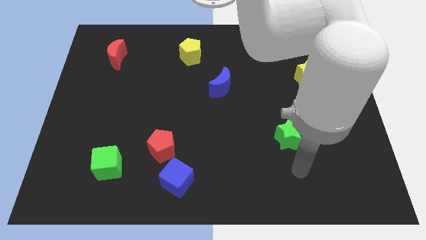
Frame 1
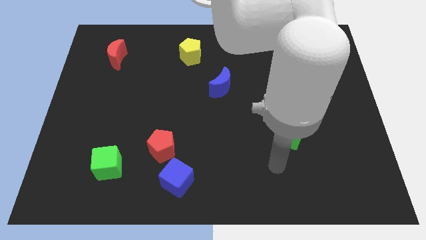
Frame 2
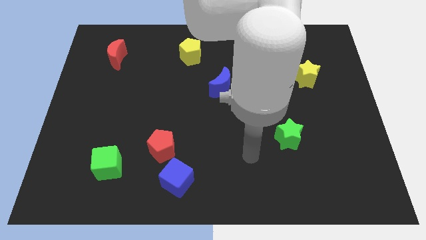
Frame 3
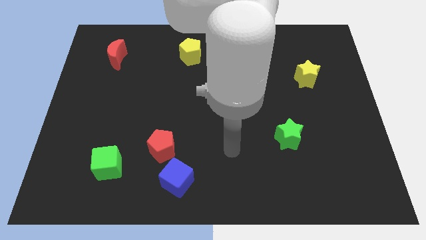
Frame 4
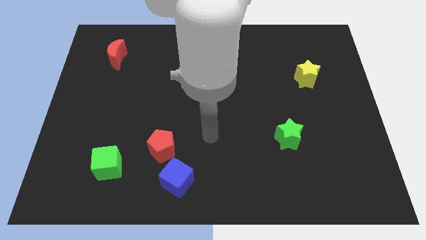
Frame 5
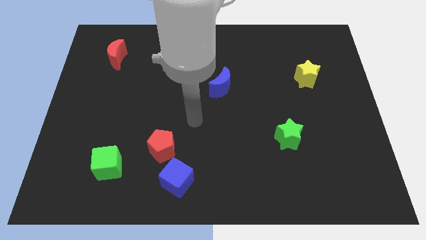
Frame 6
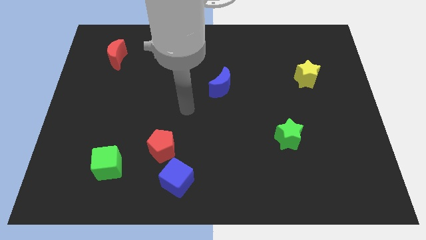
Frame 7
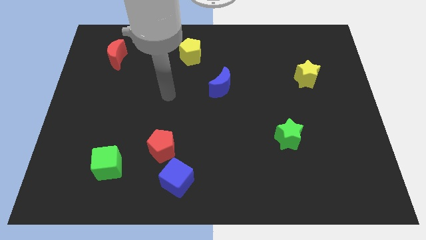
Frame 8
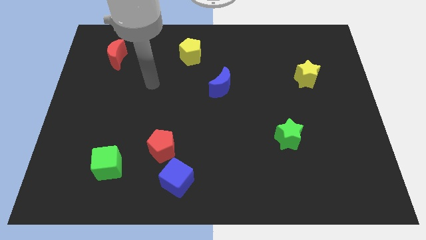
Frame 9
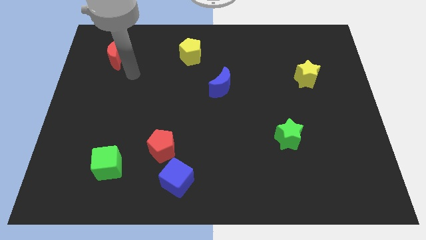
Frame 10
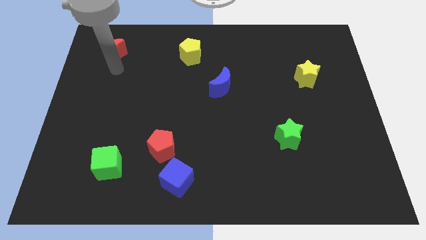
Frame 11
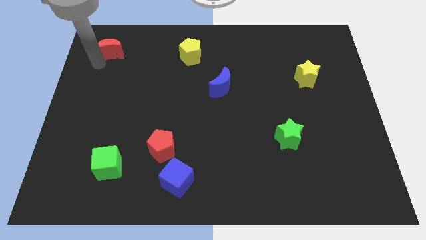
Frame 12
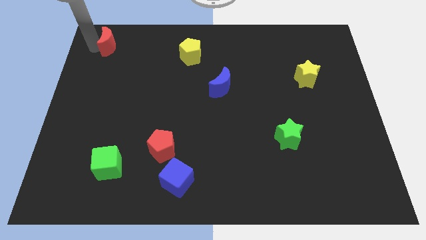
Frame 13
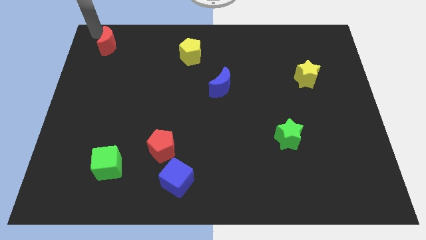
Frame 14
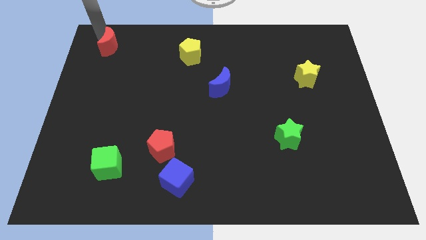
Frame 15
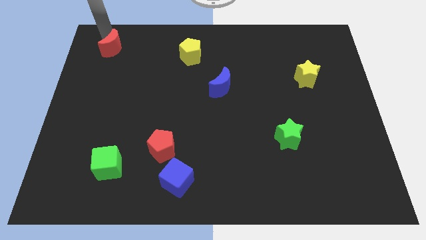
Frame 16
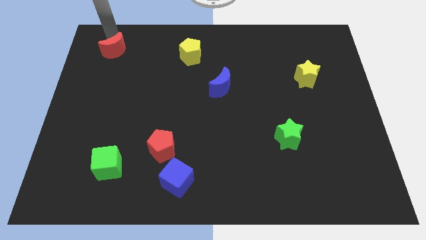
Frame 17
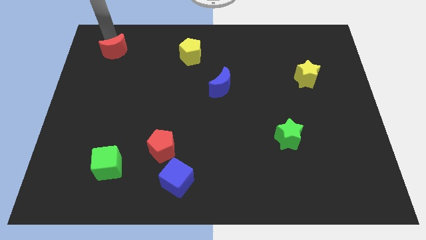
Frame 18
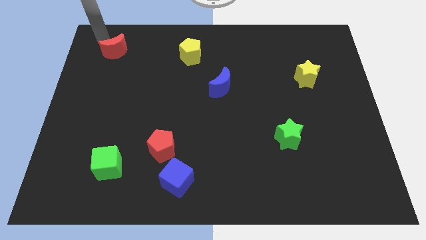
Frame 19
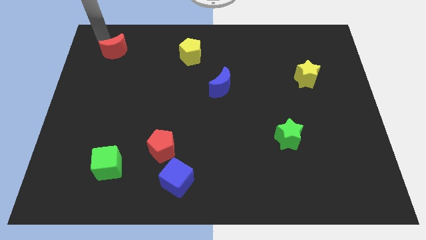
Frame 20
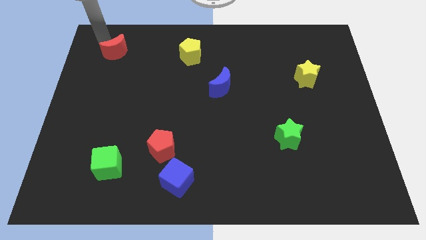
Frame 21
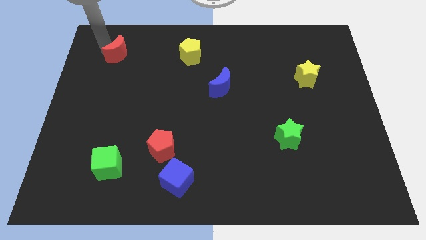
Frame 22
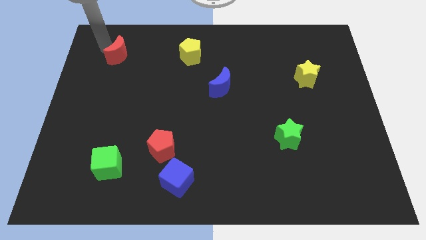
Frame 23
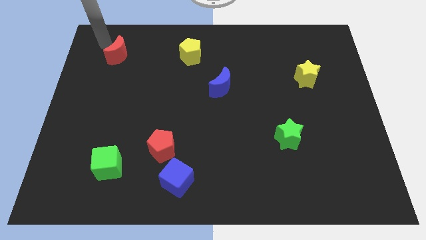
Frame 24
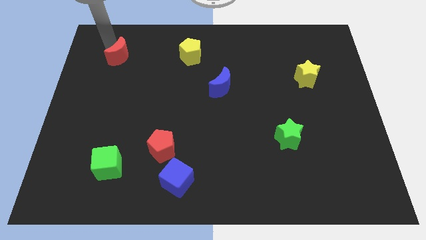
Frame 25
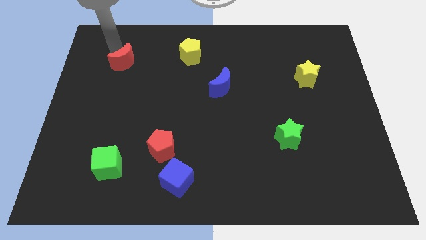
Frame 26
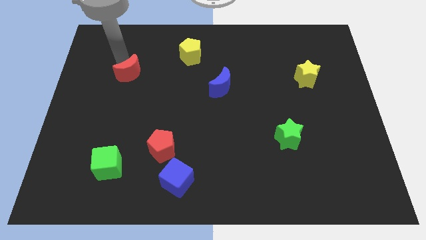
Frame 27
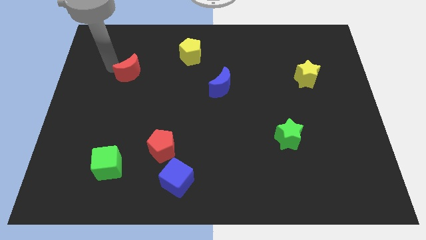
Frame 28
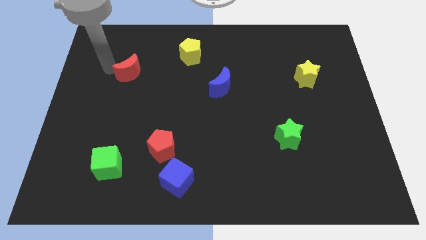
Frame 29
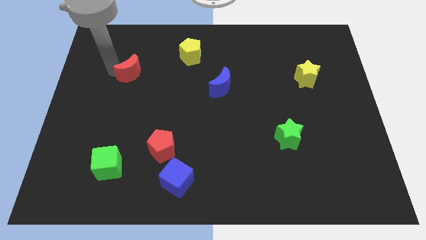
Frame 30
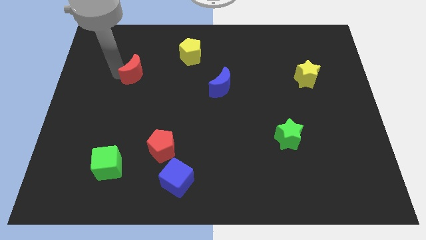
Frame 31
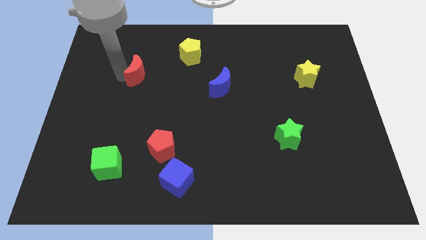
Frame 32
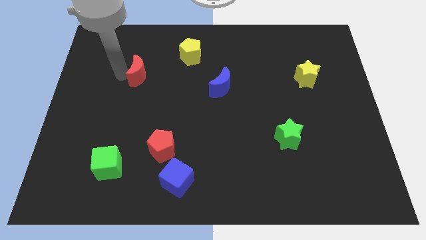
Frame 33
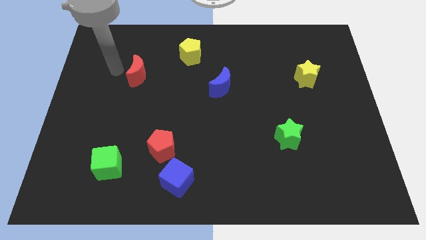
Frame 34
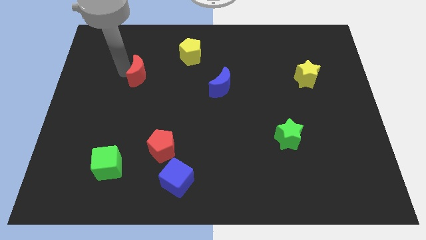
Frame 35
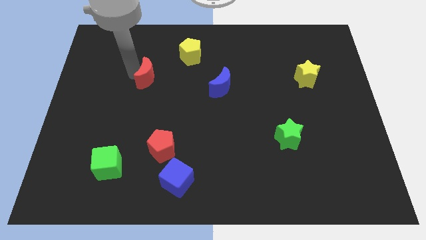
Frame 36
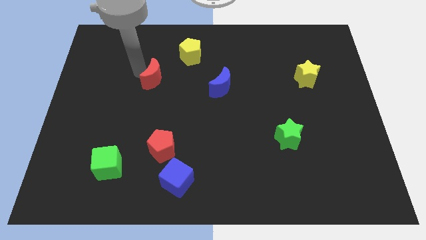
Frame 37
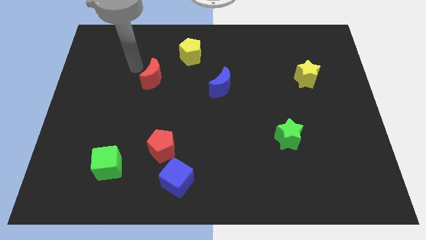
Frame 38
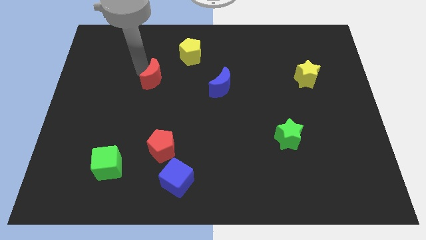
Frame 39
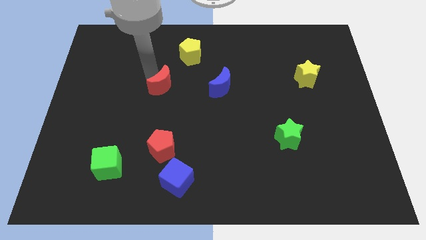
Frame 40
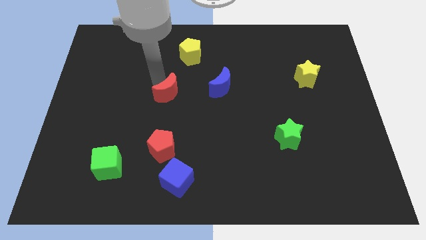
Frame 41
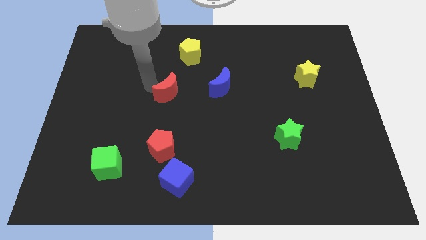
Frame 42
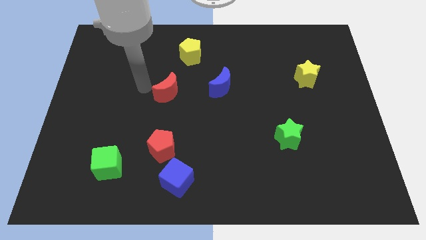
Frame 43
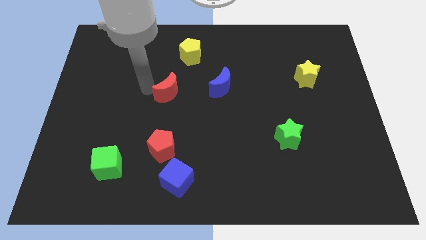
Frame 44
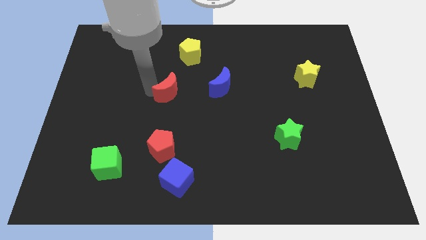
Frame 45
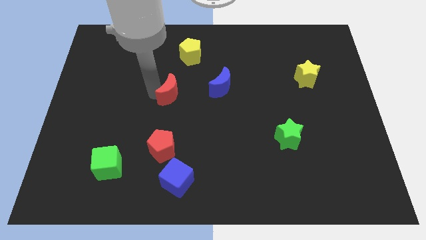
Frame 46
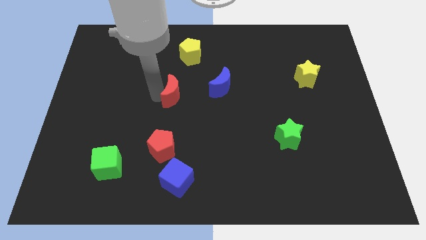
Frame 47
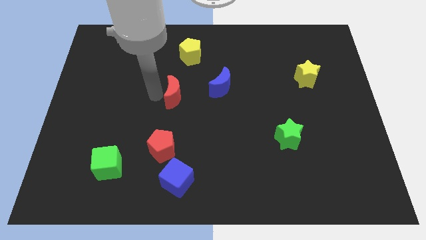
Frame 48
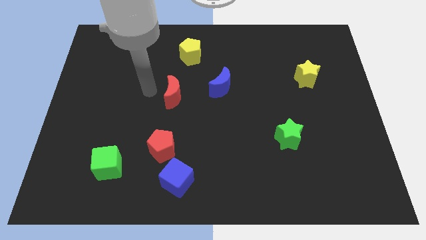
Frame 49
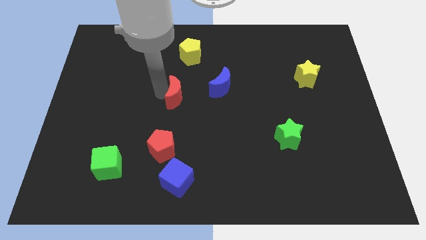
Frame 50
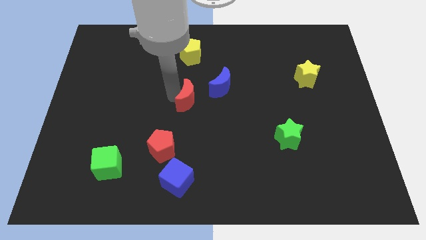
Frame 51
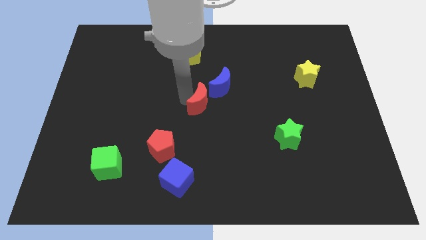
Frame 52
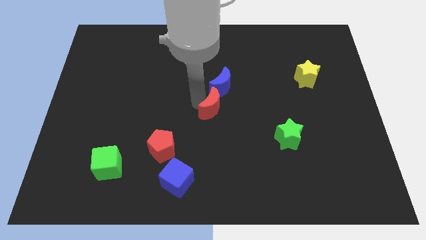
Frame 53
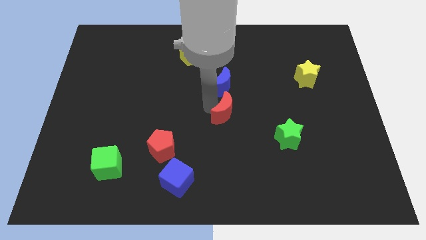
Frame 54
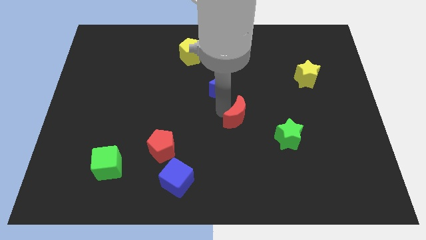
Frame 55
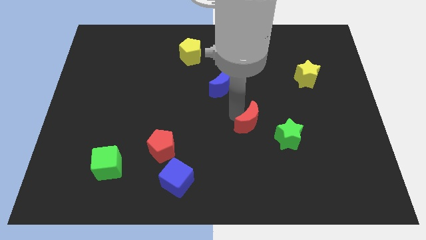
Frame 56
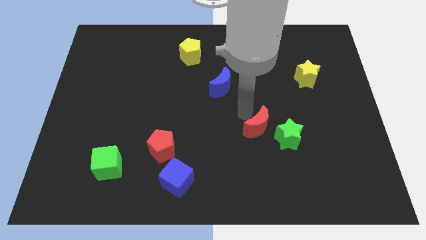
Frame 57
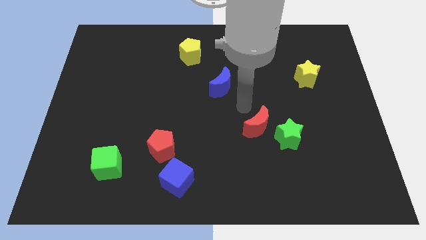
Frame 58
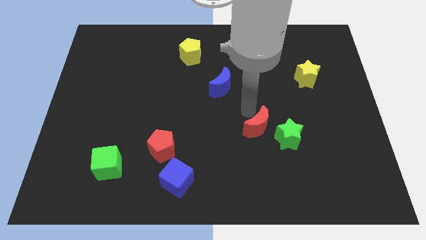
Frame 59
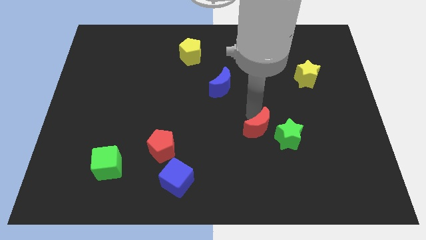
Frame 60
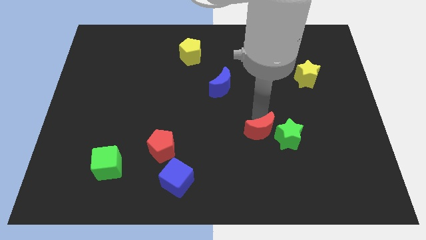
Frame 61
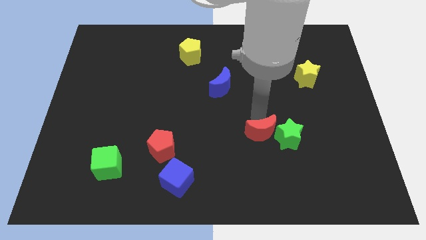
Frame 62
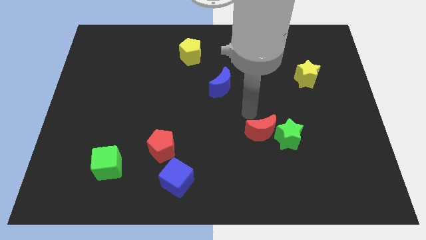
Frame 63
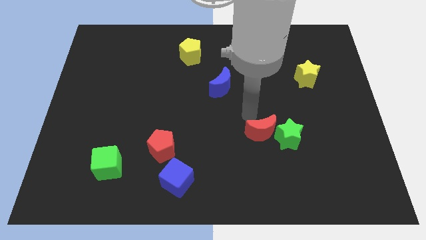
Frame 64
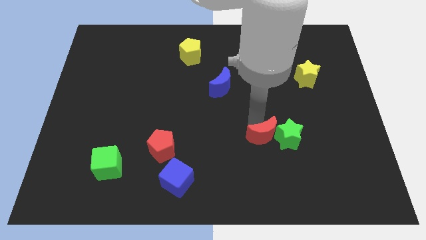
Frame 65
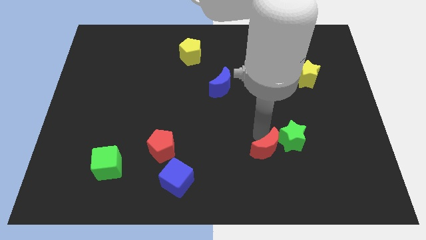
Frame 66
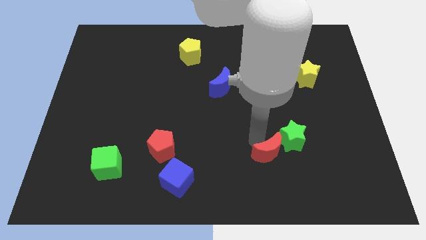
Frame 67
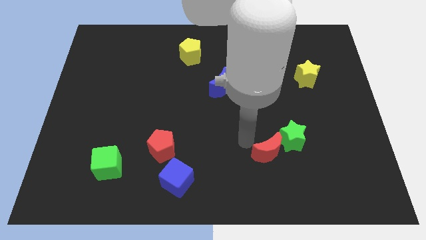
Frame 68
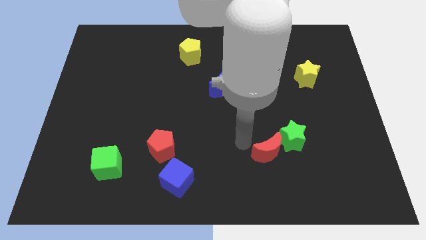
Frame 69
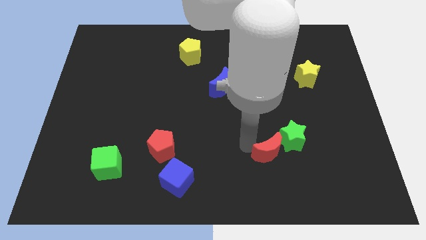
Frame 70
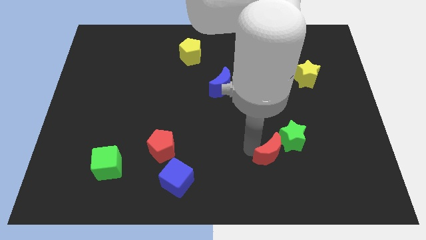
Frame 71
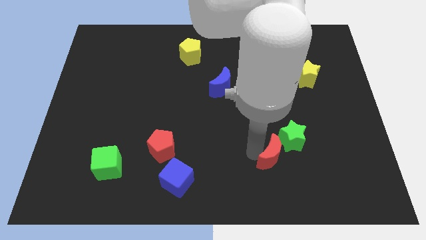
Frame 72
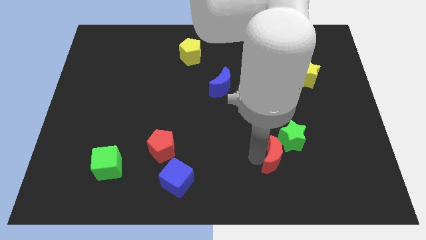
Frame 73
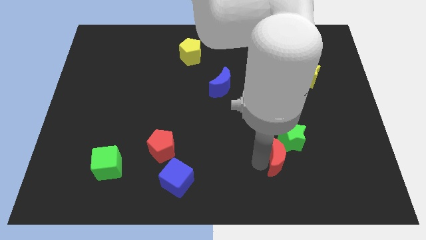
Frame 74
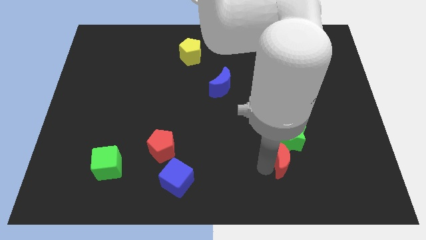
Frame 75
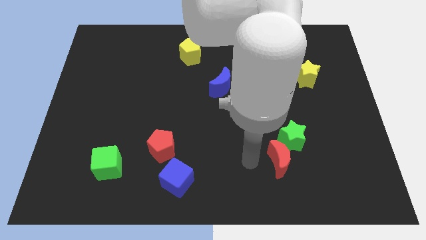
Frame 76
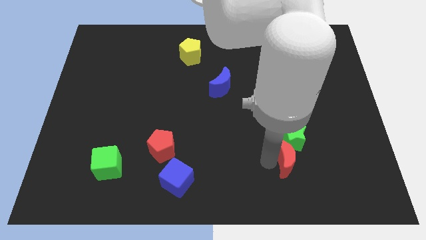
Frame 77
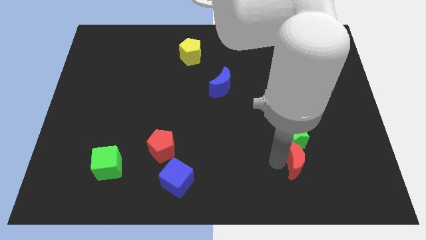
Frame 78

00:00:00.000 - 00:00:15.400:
push the red moon to the bottom right side of the green star
